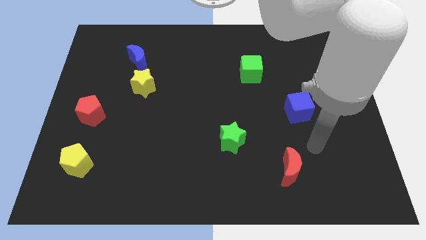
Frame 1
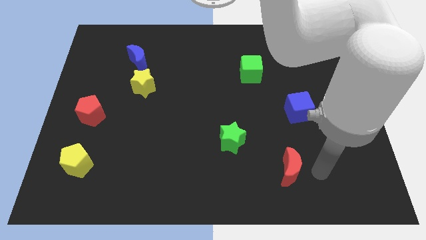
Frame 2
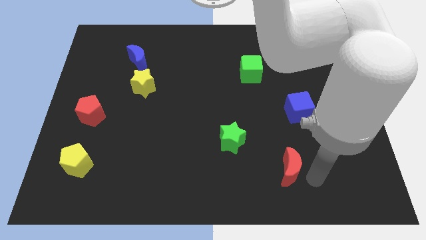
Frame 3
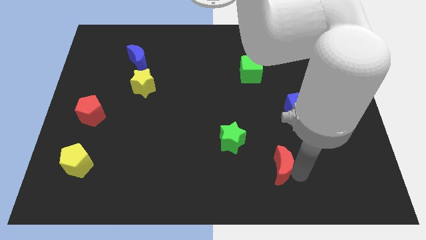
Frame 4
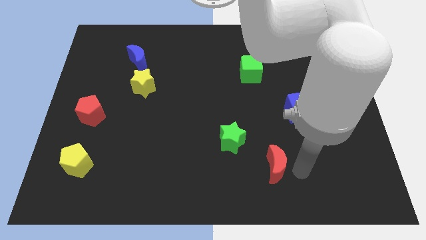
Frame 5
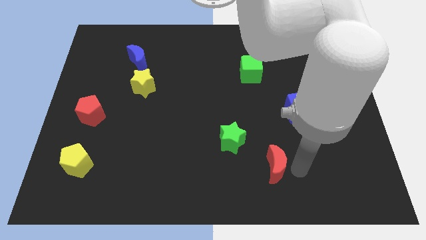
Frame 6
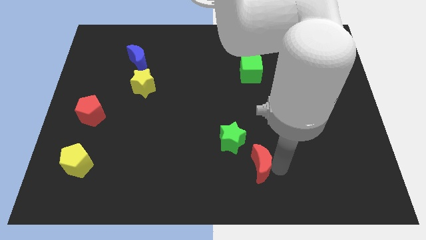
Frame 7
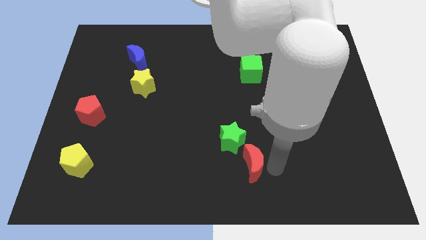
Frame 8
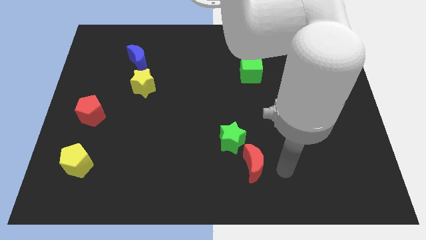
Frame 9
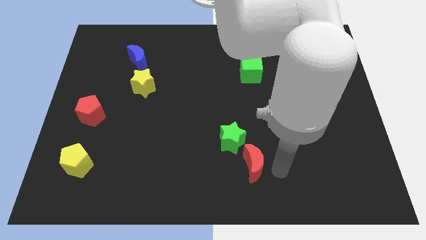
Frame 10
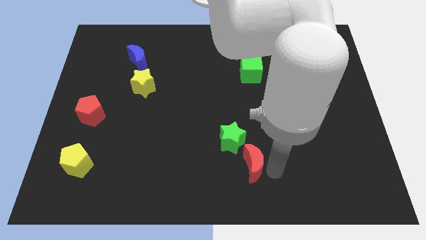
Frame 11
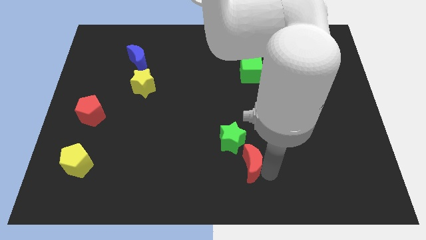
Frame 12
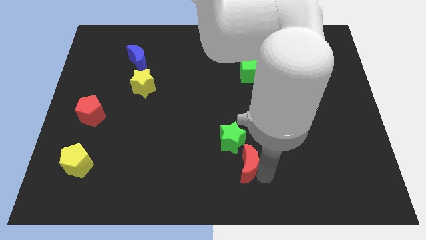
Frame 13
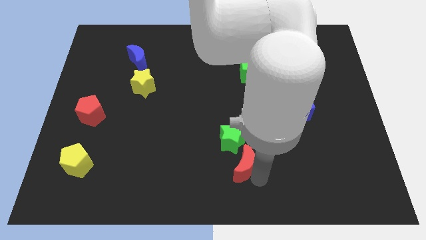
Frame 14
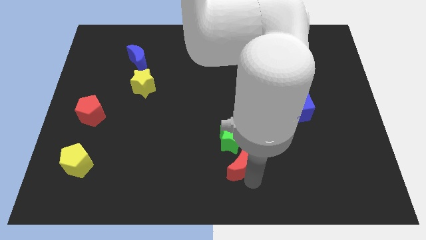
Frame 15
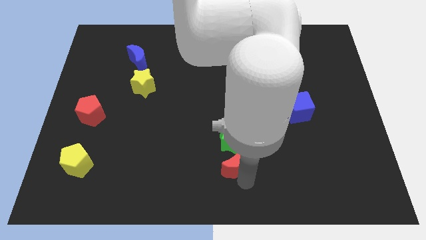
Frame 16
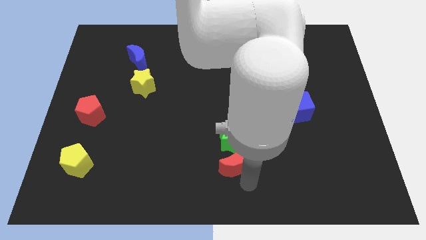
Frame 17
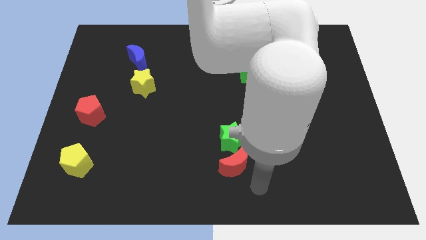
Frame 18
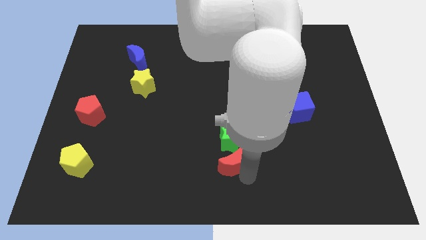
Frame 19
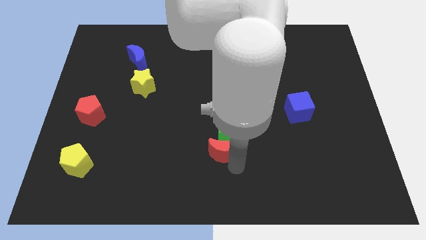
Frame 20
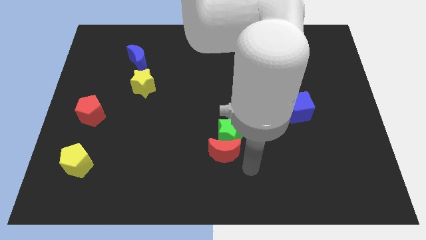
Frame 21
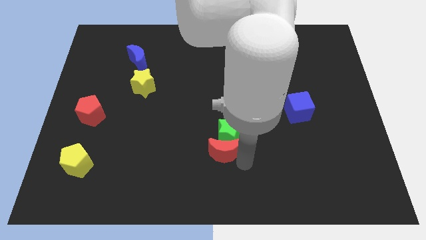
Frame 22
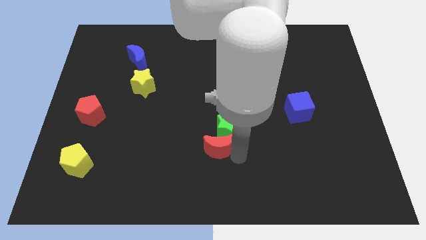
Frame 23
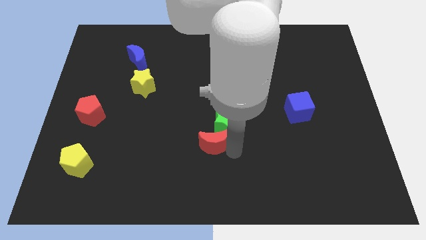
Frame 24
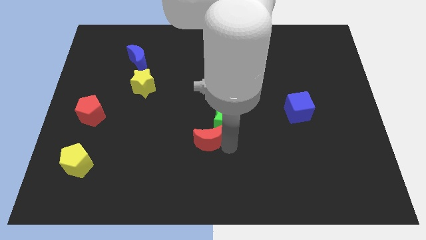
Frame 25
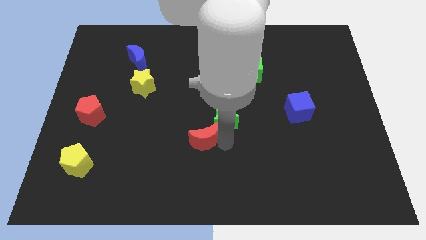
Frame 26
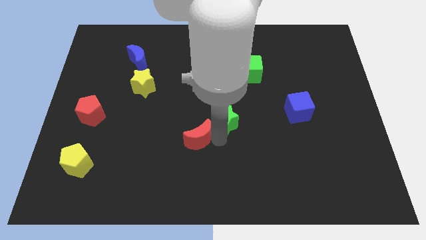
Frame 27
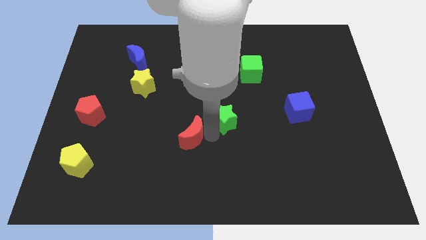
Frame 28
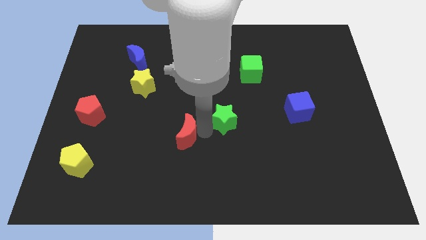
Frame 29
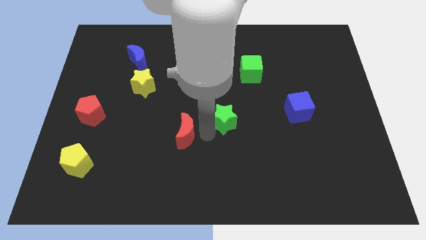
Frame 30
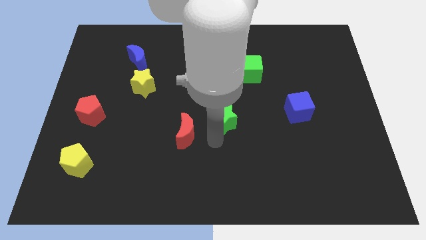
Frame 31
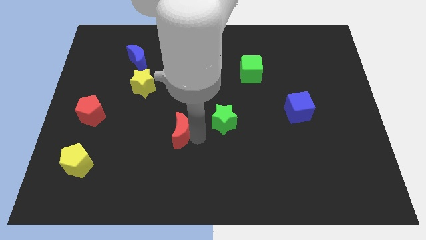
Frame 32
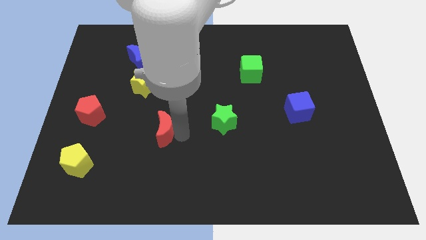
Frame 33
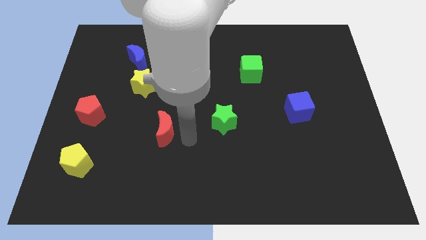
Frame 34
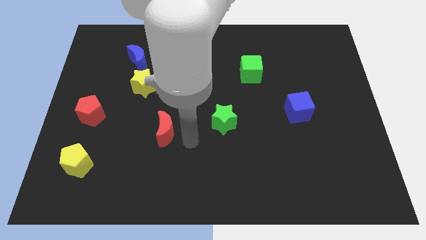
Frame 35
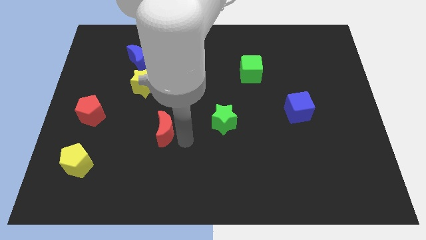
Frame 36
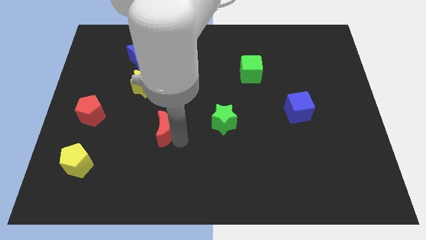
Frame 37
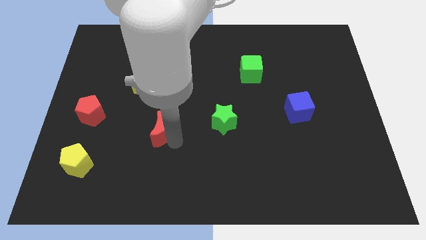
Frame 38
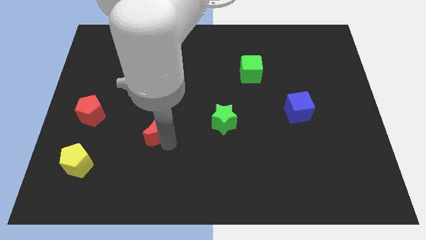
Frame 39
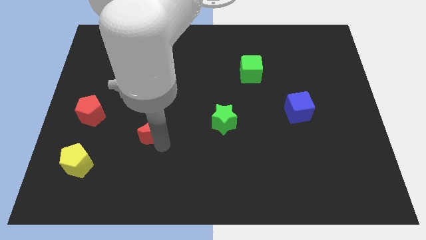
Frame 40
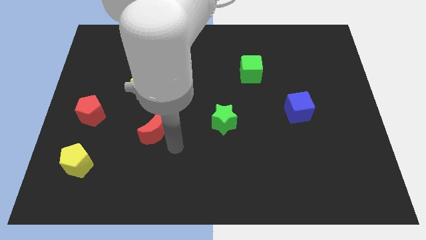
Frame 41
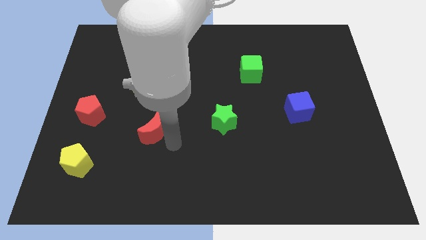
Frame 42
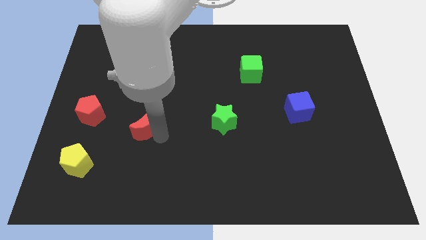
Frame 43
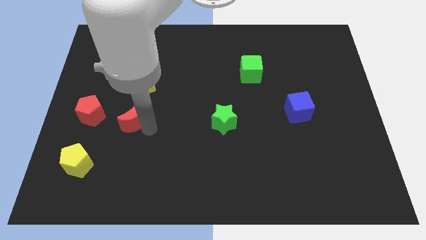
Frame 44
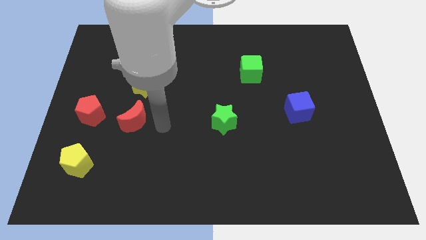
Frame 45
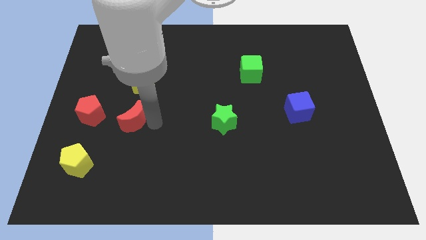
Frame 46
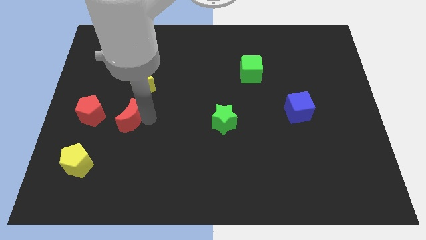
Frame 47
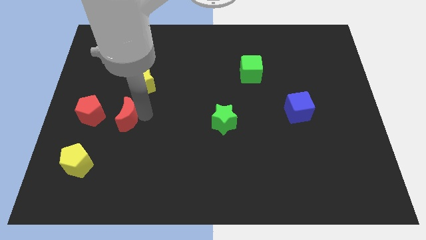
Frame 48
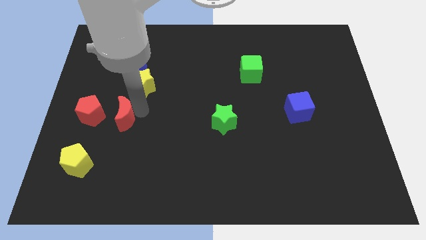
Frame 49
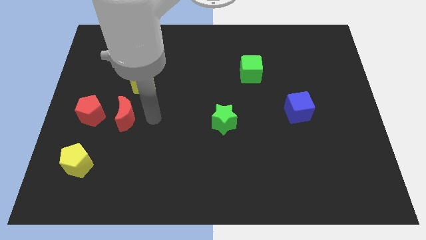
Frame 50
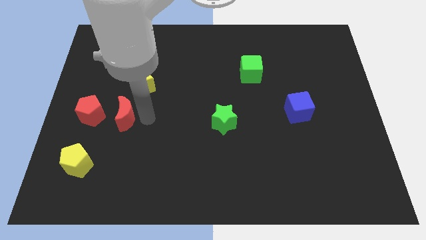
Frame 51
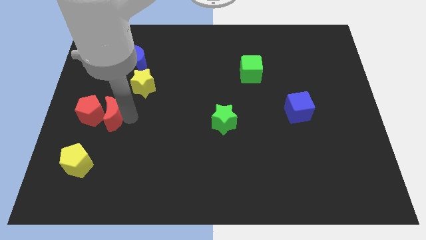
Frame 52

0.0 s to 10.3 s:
slide the red moon close to the red pentagon

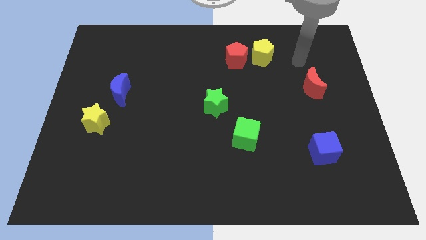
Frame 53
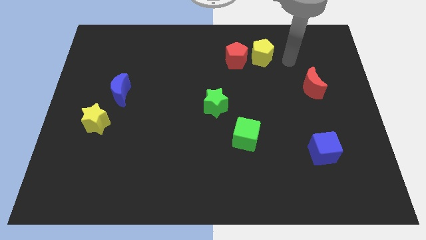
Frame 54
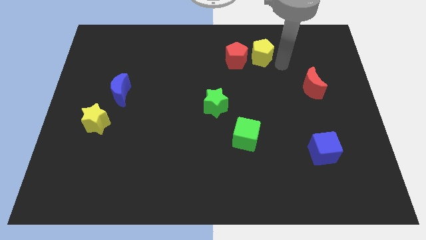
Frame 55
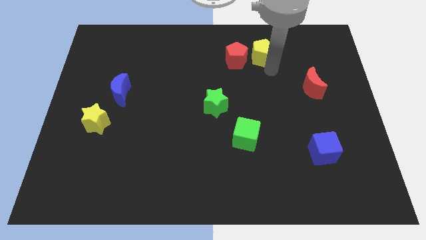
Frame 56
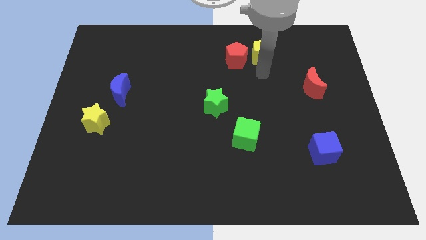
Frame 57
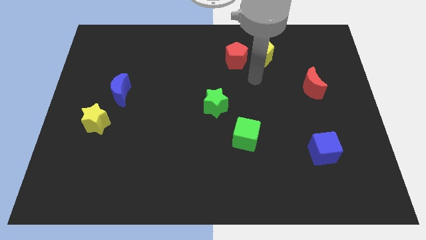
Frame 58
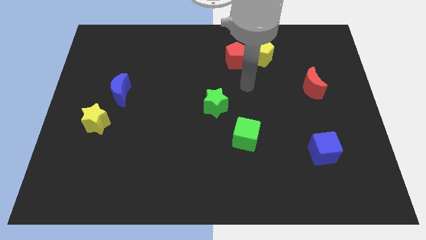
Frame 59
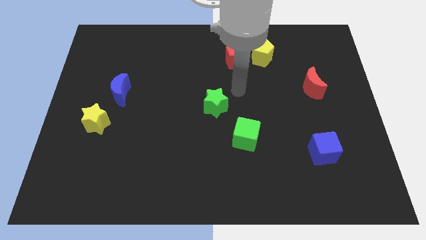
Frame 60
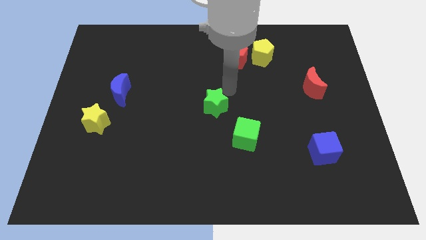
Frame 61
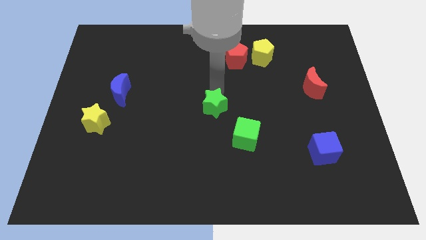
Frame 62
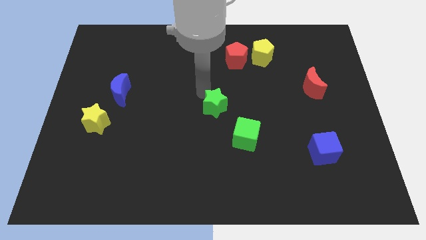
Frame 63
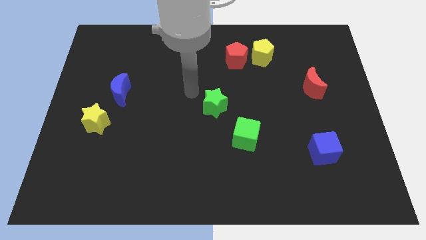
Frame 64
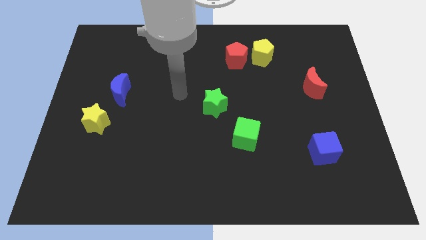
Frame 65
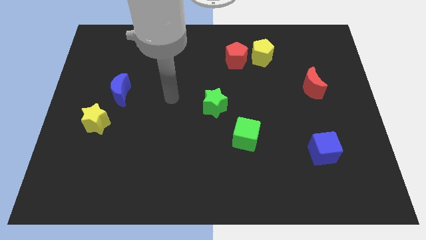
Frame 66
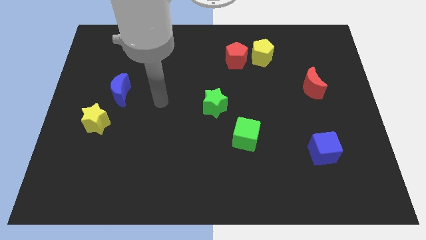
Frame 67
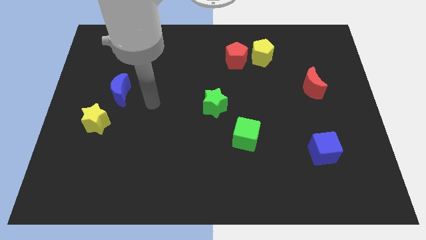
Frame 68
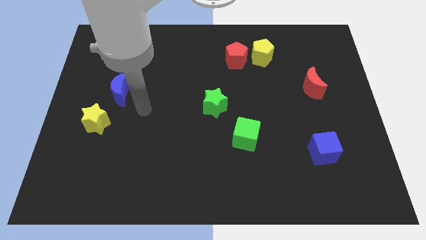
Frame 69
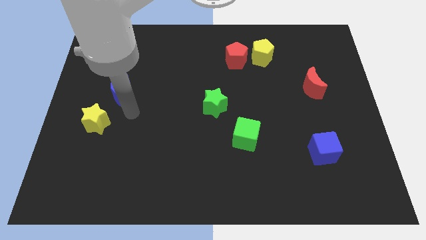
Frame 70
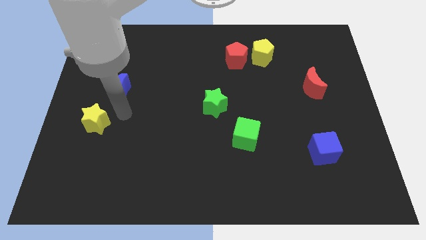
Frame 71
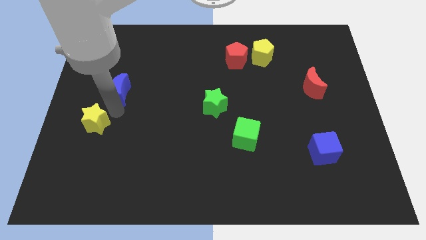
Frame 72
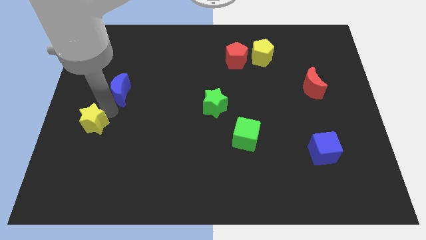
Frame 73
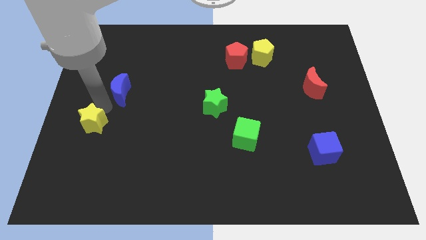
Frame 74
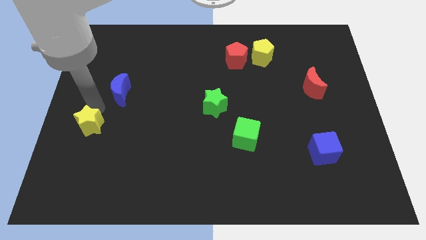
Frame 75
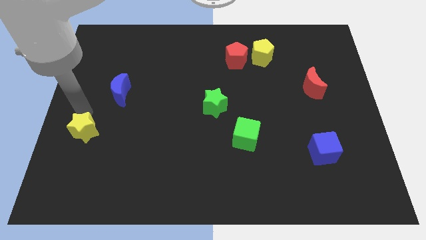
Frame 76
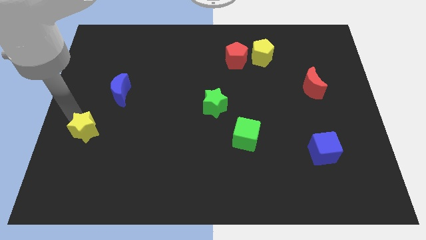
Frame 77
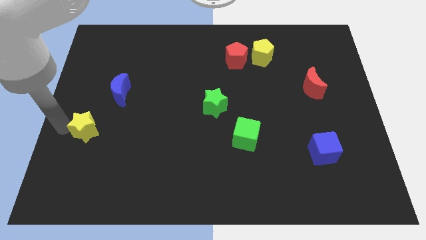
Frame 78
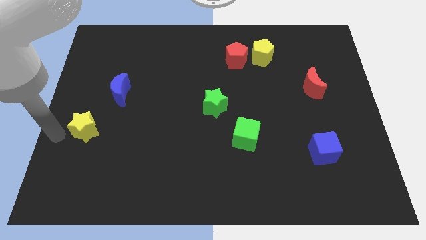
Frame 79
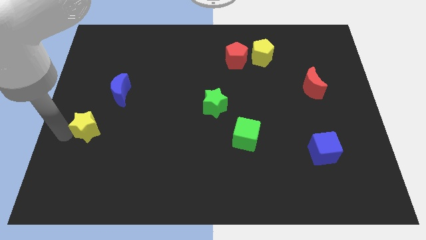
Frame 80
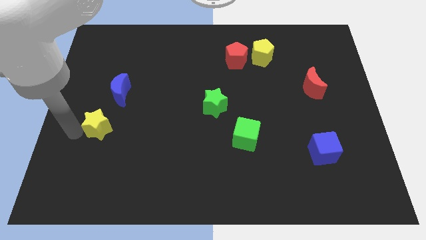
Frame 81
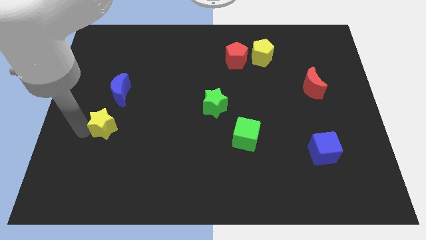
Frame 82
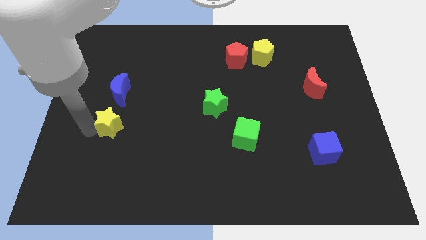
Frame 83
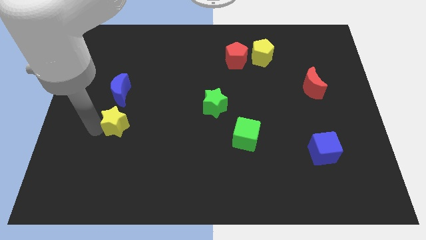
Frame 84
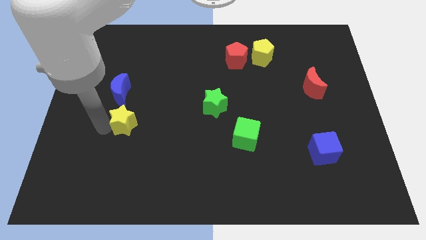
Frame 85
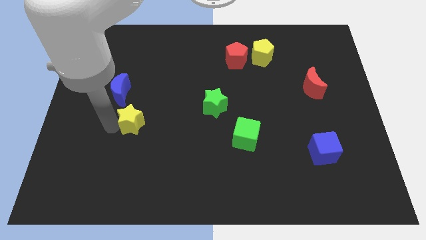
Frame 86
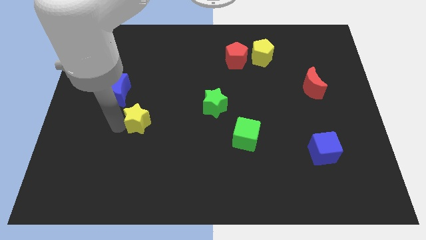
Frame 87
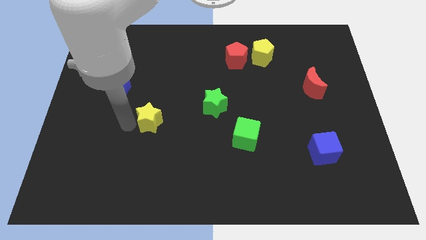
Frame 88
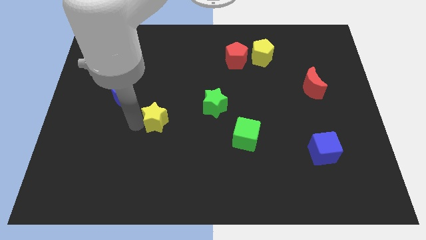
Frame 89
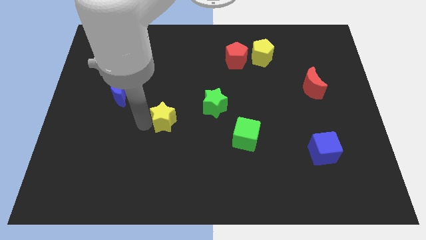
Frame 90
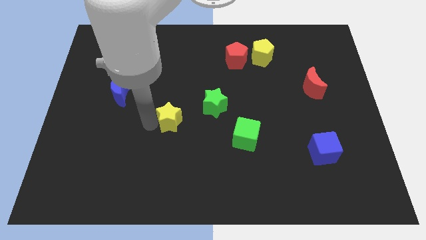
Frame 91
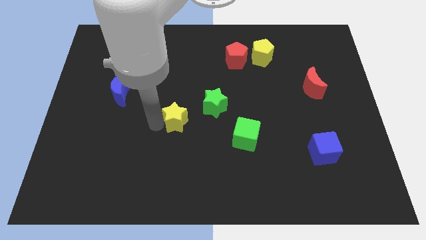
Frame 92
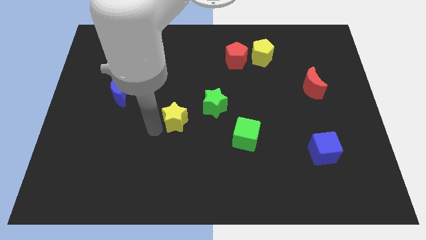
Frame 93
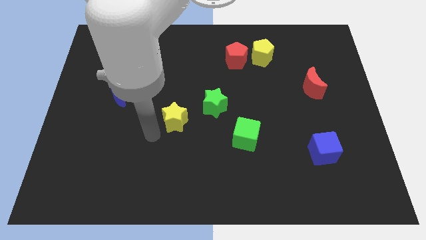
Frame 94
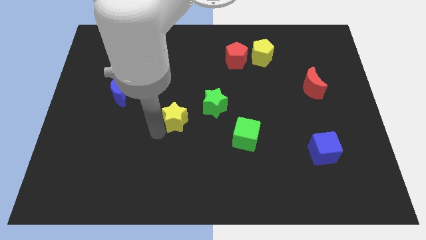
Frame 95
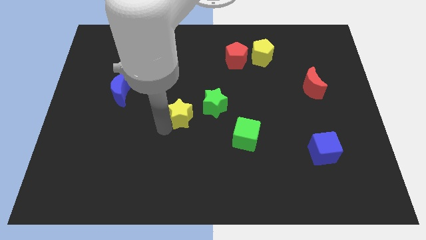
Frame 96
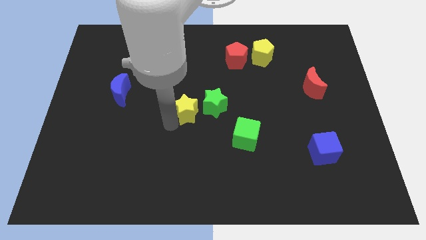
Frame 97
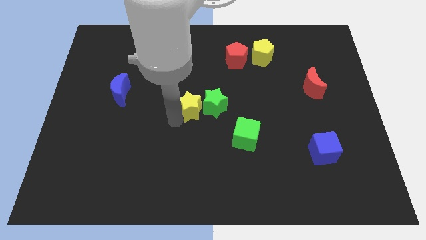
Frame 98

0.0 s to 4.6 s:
move the yellow star next to the green star
